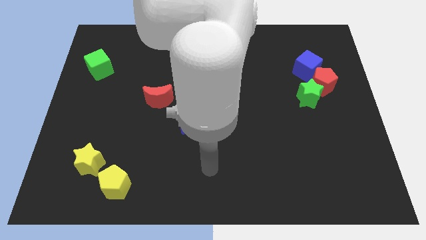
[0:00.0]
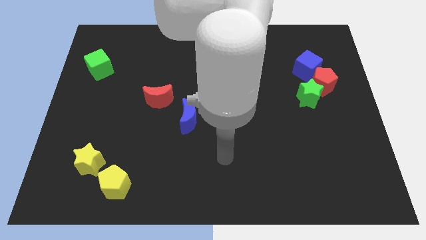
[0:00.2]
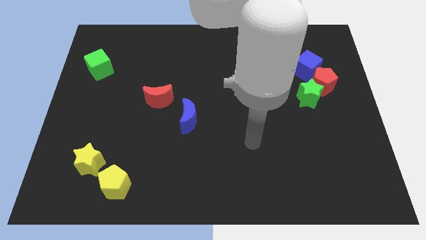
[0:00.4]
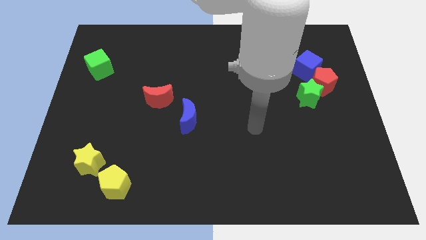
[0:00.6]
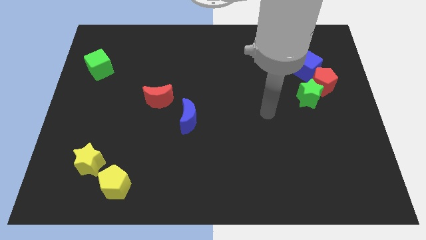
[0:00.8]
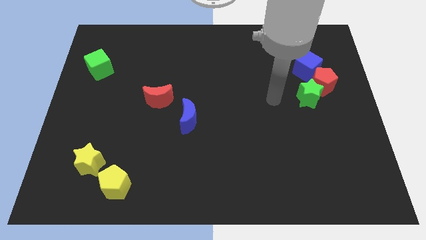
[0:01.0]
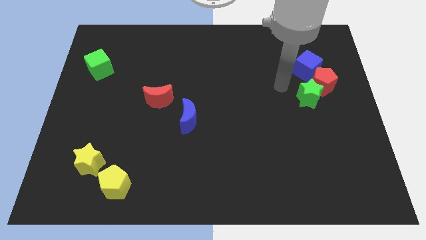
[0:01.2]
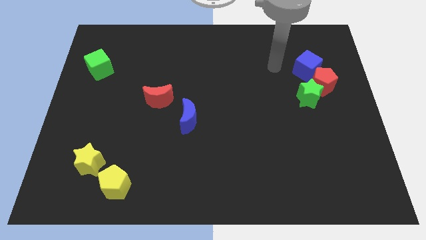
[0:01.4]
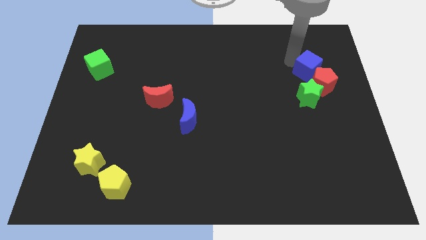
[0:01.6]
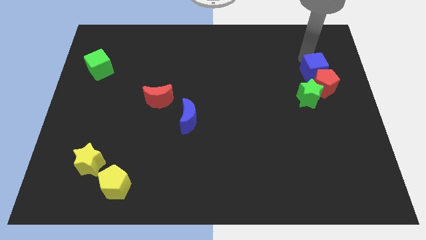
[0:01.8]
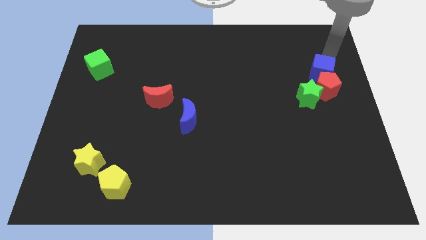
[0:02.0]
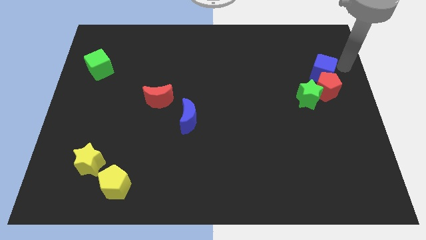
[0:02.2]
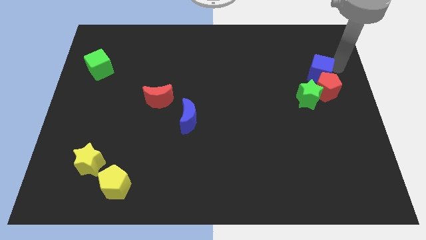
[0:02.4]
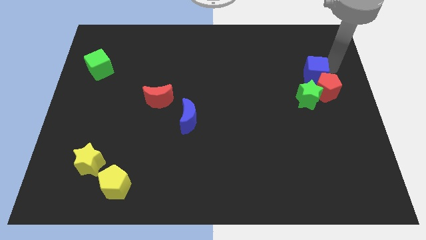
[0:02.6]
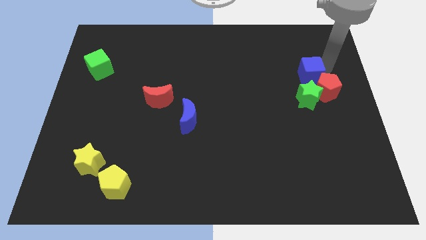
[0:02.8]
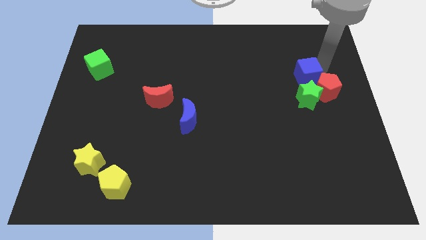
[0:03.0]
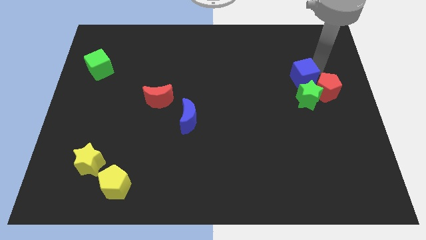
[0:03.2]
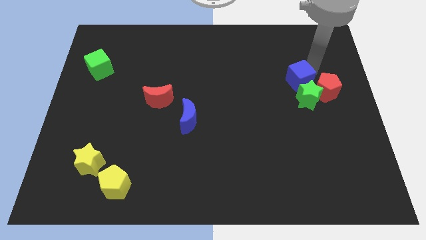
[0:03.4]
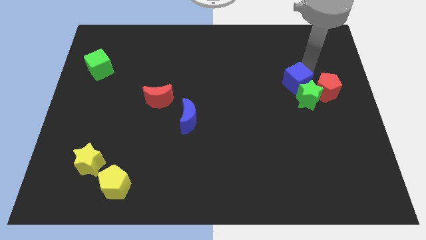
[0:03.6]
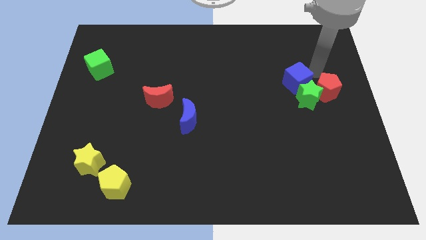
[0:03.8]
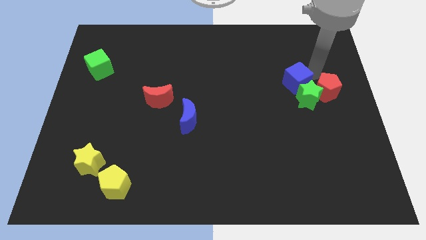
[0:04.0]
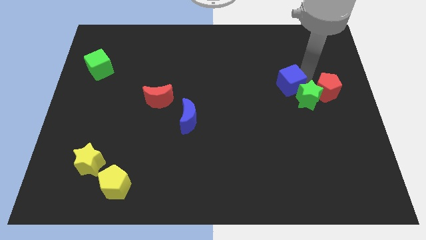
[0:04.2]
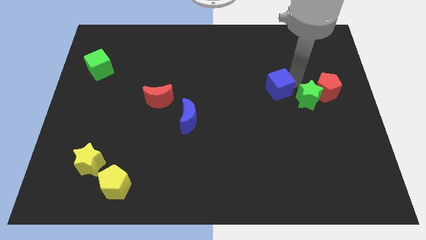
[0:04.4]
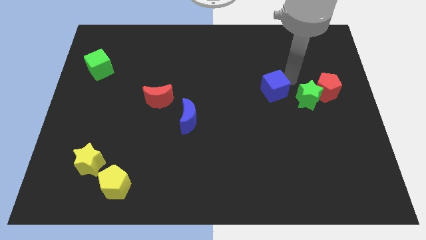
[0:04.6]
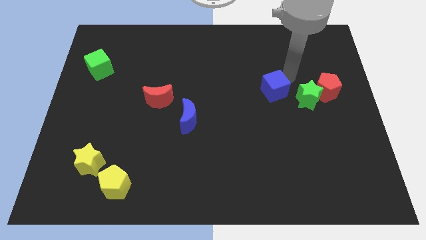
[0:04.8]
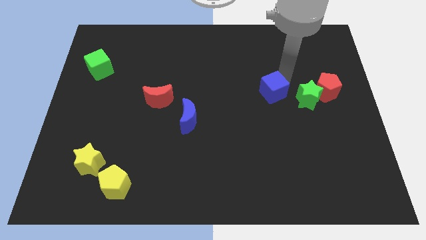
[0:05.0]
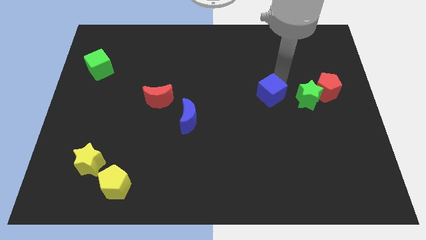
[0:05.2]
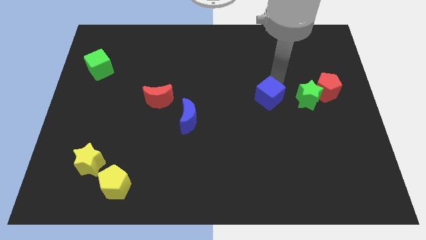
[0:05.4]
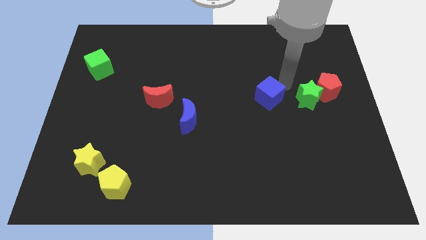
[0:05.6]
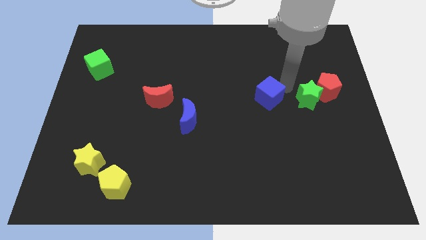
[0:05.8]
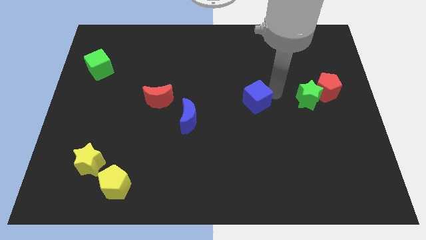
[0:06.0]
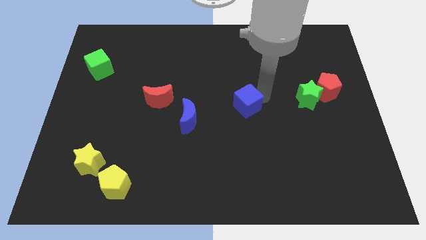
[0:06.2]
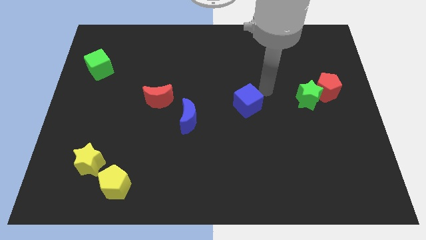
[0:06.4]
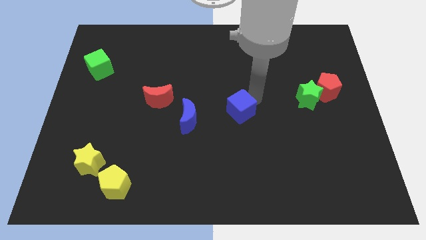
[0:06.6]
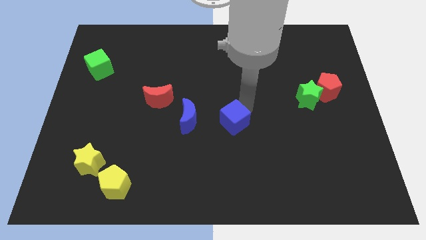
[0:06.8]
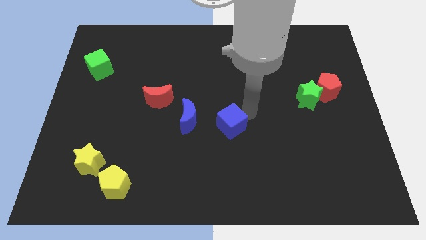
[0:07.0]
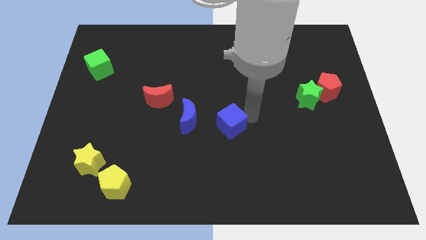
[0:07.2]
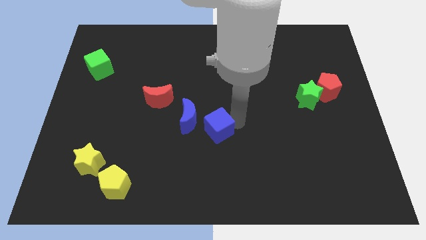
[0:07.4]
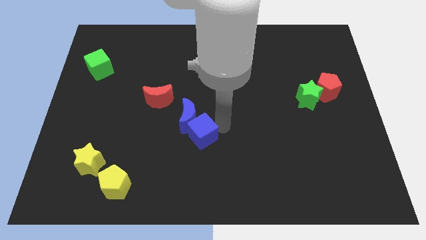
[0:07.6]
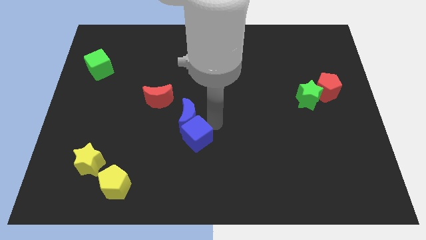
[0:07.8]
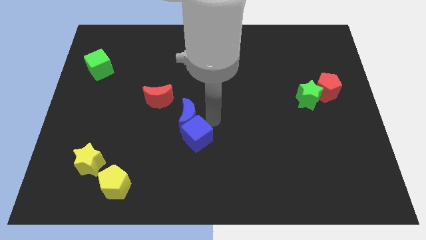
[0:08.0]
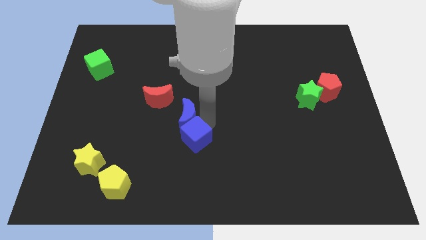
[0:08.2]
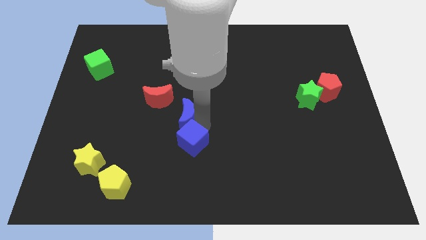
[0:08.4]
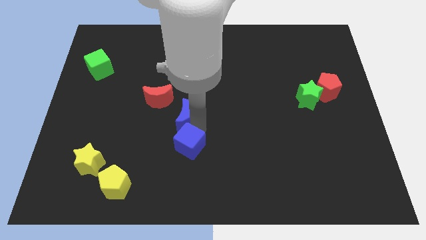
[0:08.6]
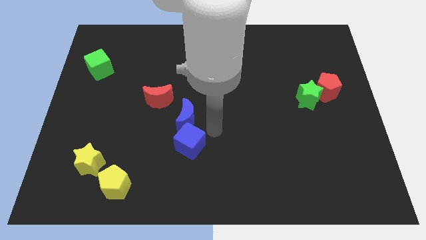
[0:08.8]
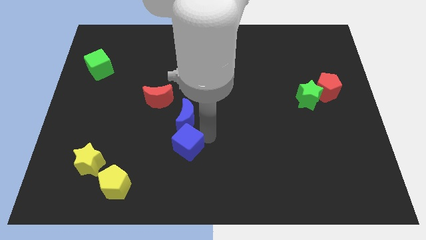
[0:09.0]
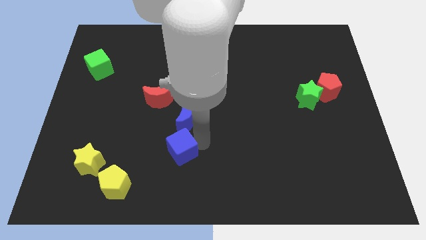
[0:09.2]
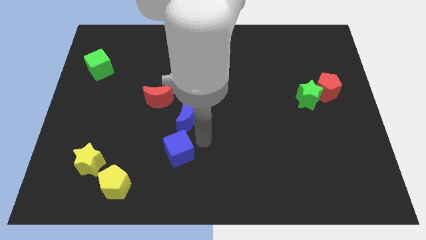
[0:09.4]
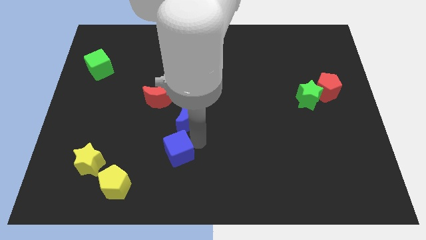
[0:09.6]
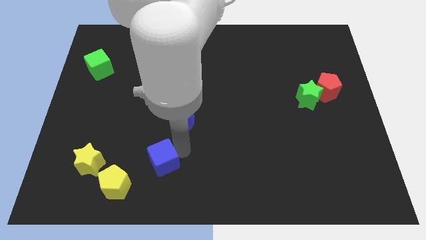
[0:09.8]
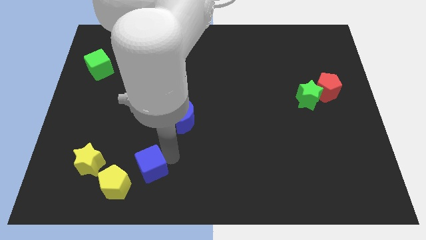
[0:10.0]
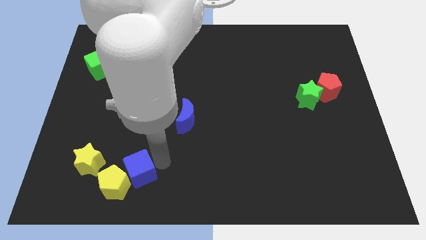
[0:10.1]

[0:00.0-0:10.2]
put the blue cube to the yellow pentagon

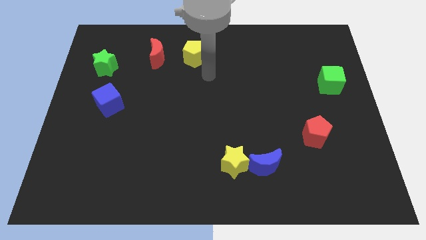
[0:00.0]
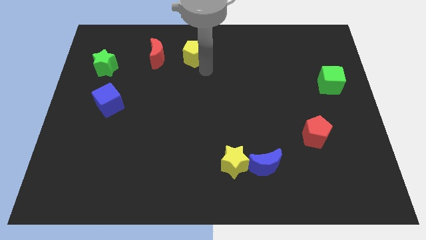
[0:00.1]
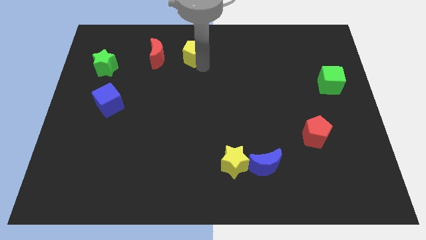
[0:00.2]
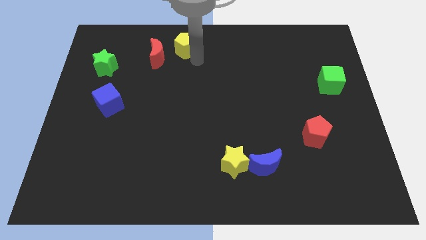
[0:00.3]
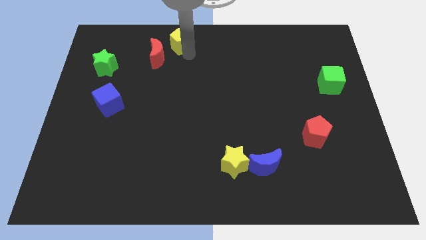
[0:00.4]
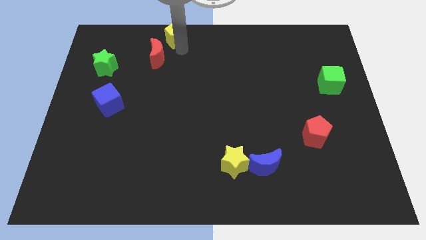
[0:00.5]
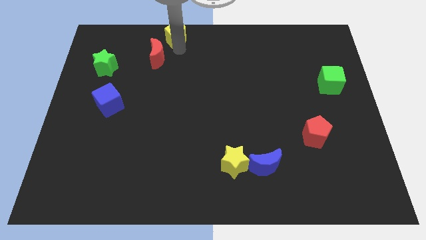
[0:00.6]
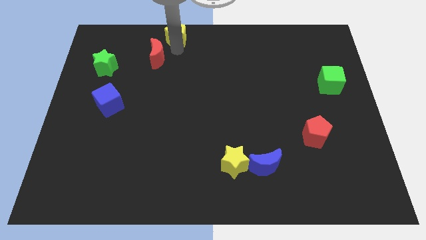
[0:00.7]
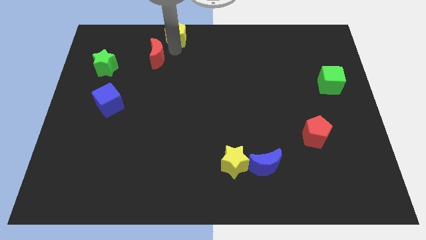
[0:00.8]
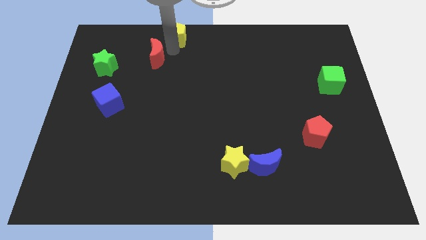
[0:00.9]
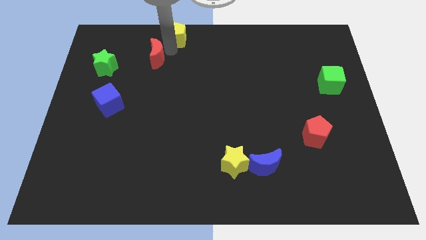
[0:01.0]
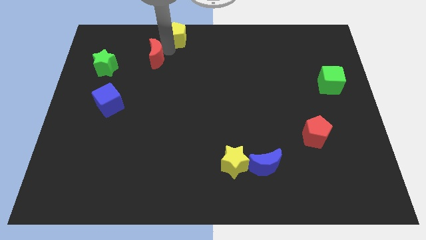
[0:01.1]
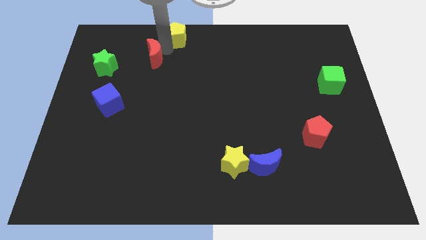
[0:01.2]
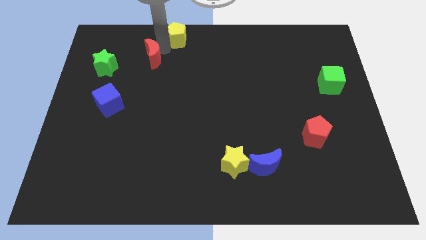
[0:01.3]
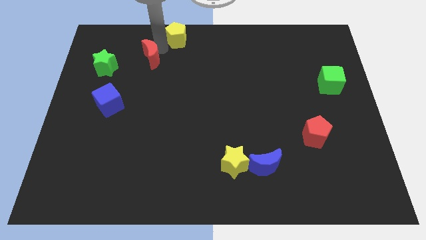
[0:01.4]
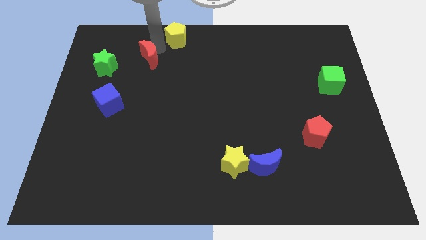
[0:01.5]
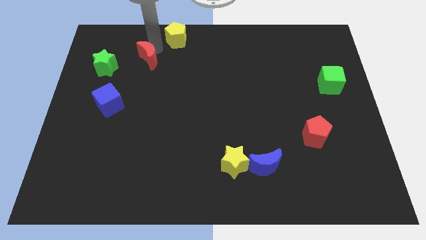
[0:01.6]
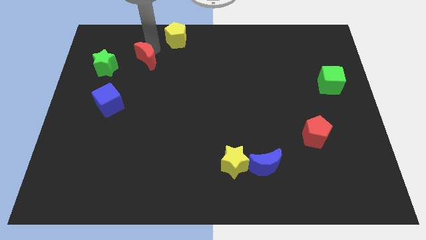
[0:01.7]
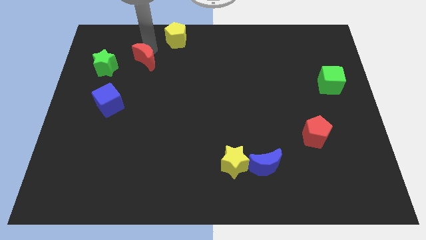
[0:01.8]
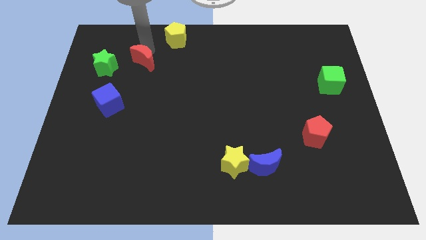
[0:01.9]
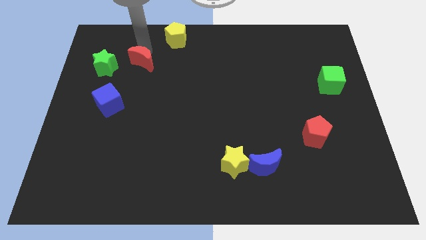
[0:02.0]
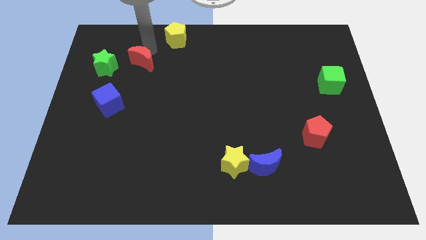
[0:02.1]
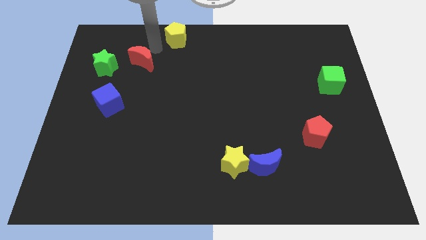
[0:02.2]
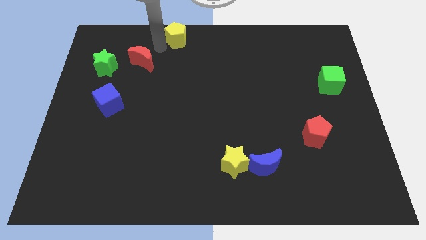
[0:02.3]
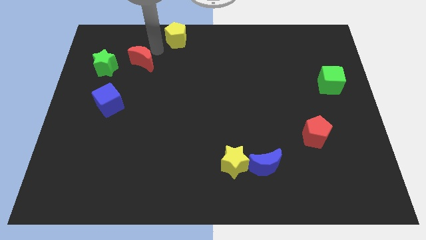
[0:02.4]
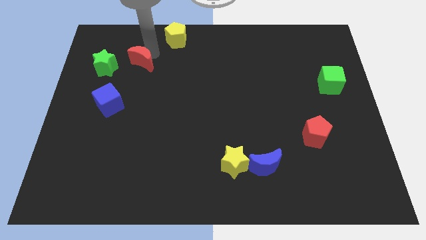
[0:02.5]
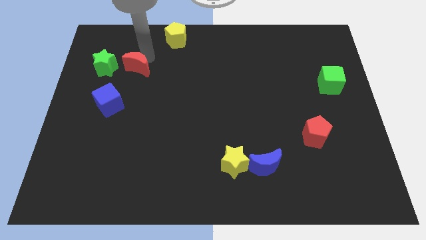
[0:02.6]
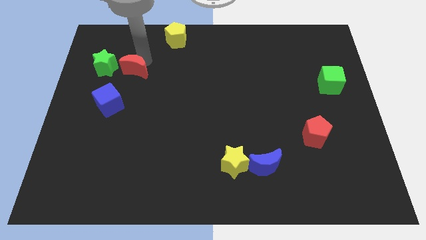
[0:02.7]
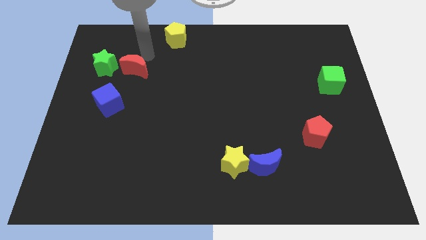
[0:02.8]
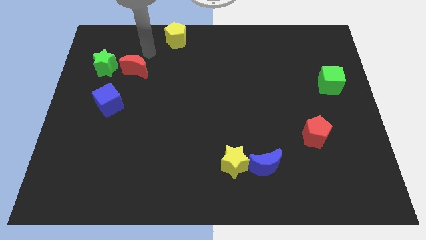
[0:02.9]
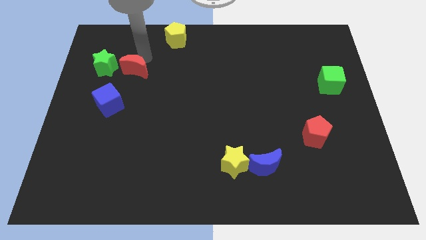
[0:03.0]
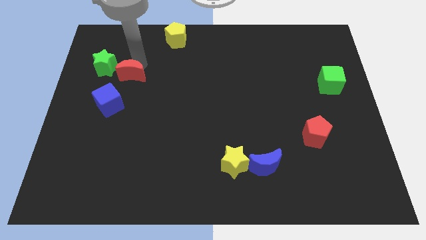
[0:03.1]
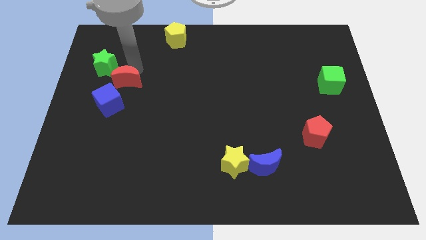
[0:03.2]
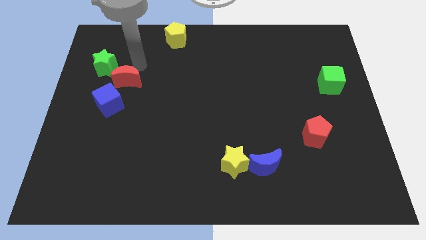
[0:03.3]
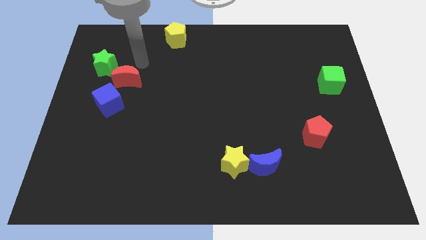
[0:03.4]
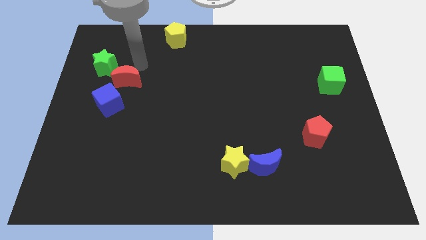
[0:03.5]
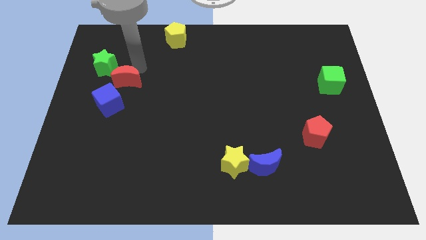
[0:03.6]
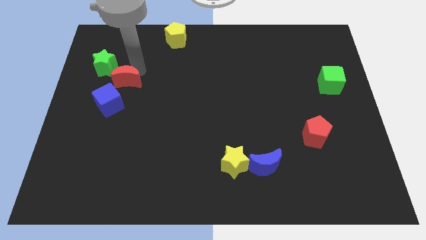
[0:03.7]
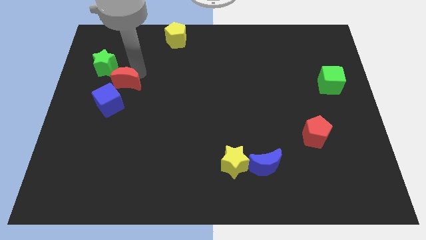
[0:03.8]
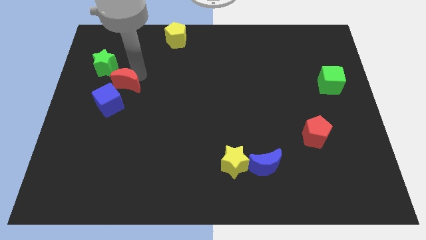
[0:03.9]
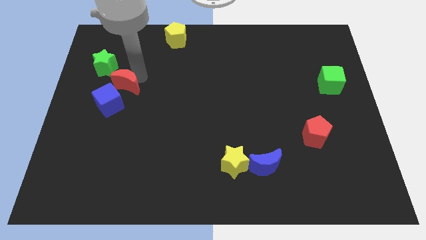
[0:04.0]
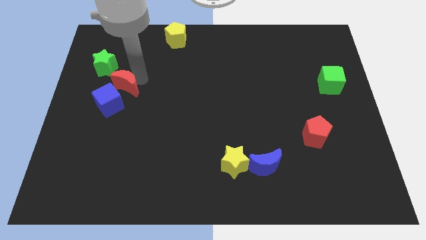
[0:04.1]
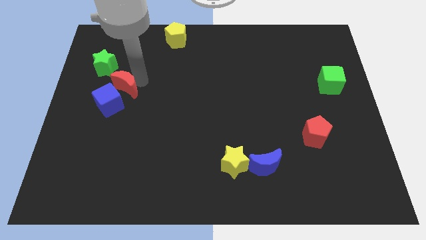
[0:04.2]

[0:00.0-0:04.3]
put the red moon next to the blue cube
